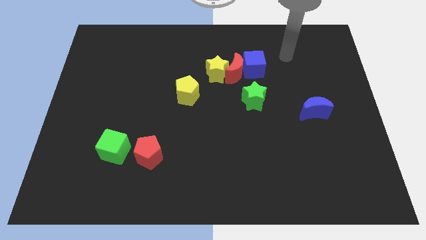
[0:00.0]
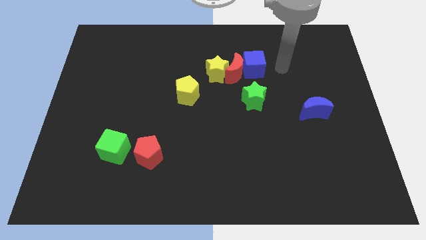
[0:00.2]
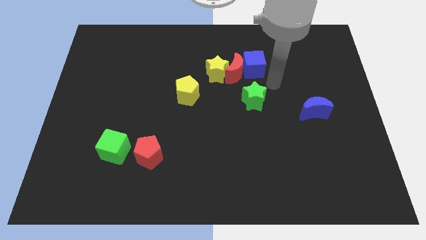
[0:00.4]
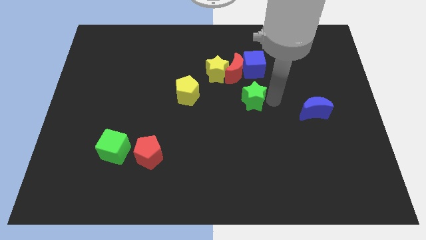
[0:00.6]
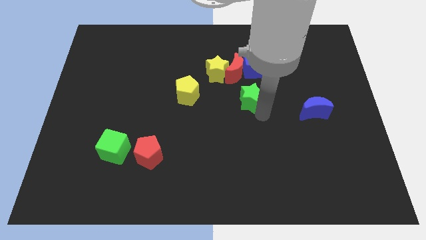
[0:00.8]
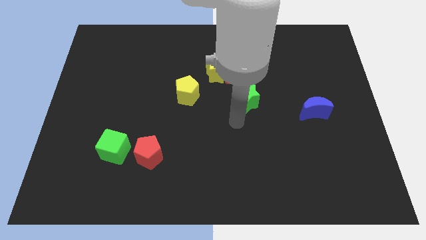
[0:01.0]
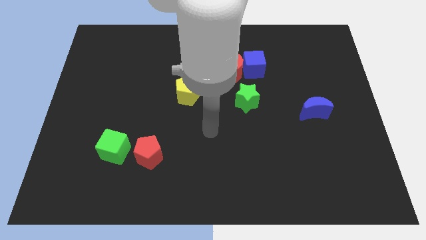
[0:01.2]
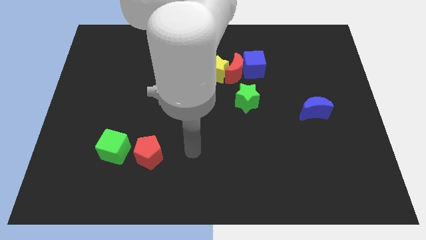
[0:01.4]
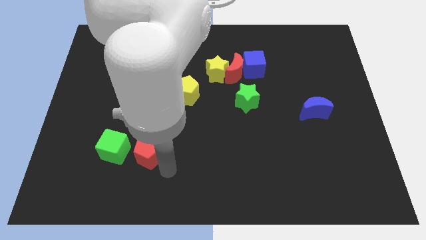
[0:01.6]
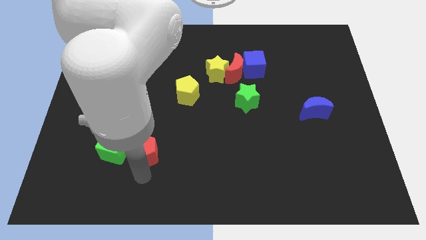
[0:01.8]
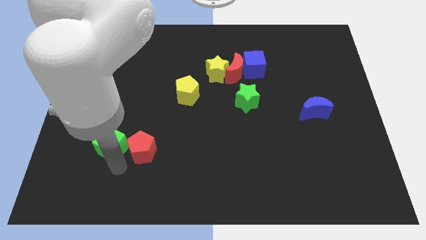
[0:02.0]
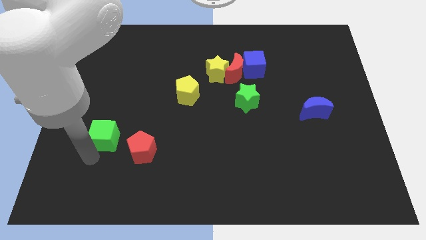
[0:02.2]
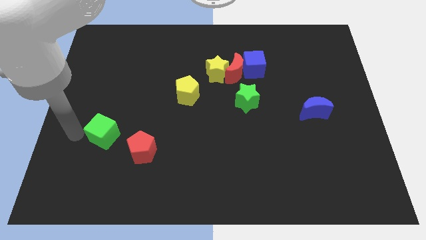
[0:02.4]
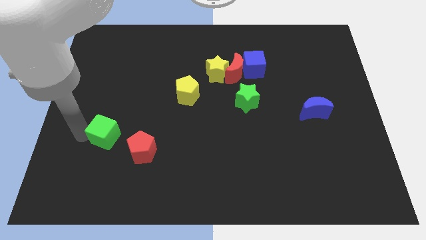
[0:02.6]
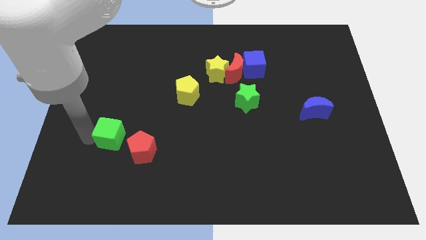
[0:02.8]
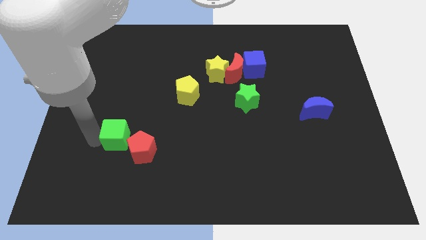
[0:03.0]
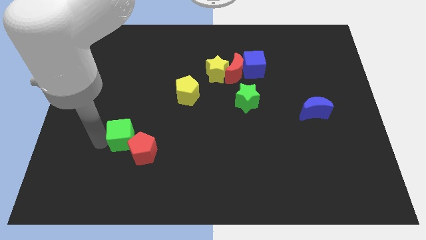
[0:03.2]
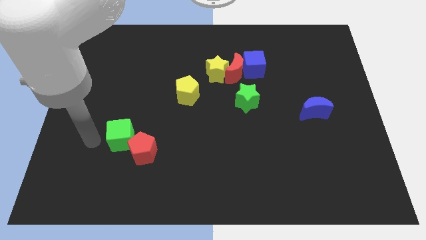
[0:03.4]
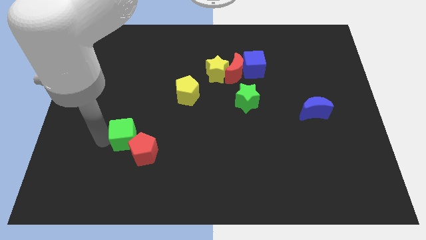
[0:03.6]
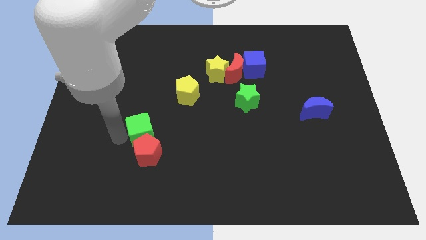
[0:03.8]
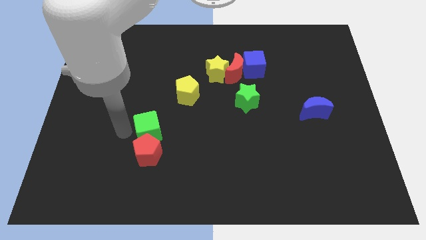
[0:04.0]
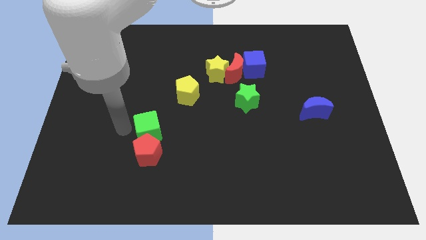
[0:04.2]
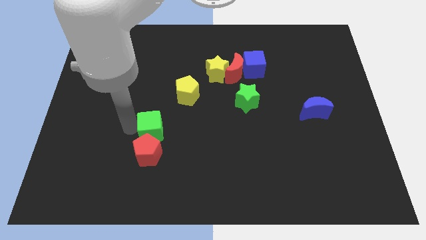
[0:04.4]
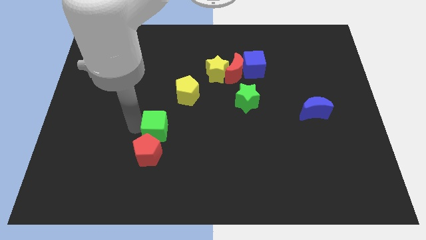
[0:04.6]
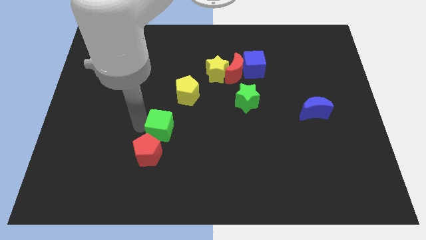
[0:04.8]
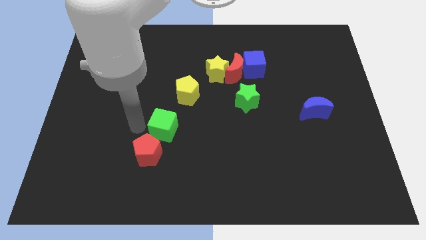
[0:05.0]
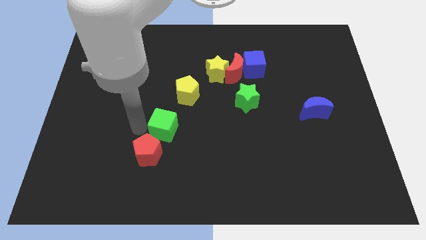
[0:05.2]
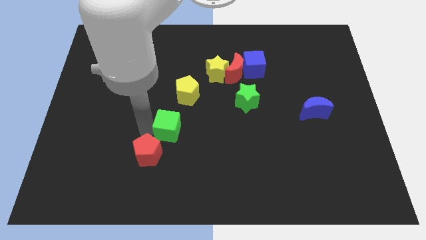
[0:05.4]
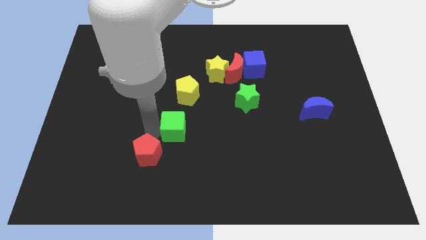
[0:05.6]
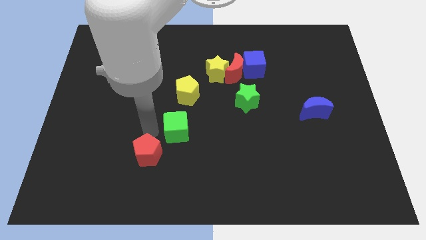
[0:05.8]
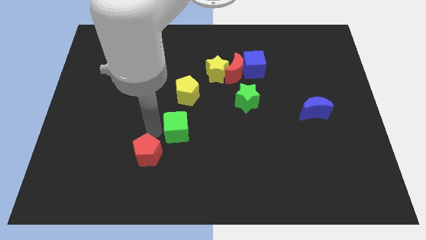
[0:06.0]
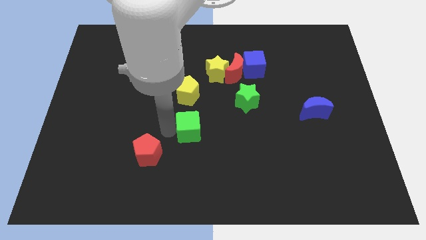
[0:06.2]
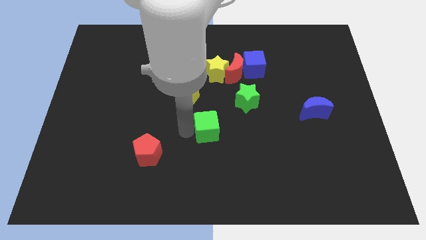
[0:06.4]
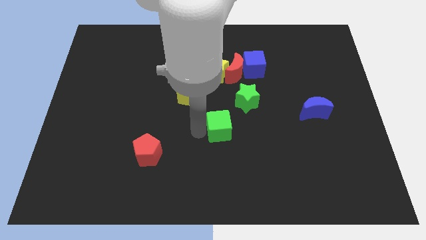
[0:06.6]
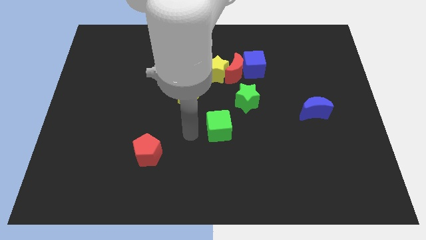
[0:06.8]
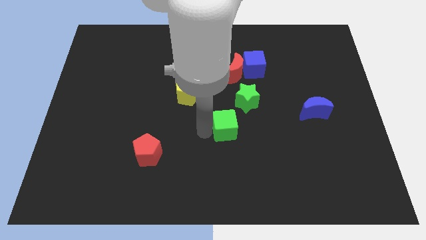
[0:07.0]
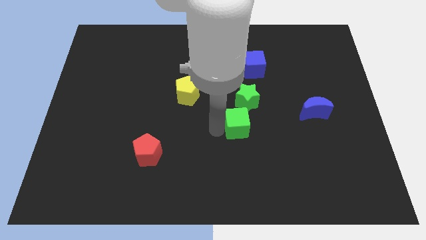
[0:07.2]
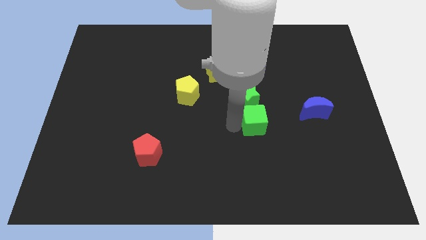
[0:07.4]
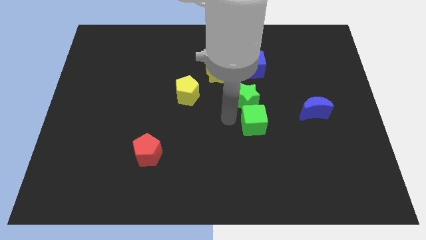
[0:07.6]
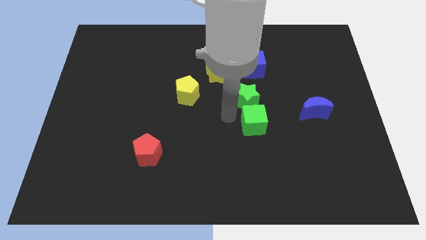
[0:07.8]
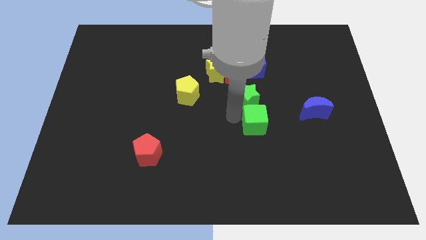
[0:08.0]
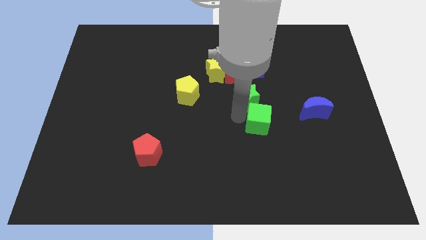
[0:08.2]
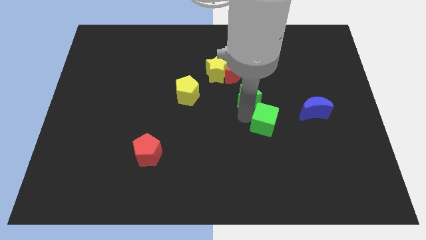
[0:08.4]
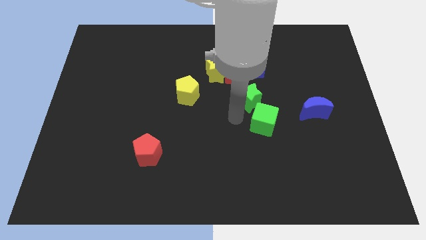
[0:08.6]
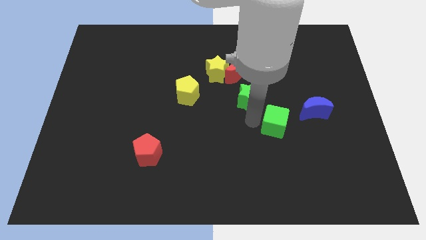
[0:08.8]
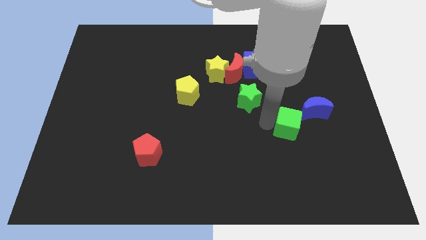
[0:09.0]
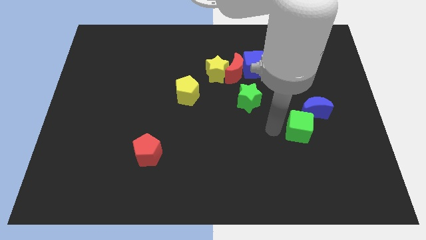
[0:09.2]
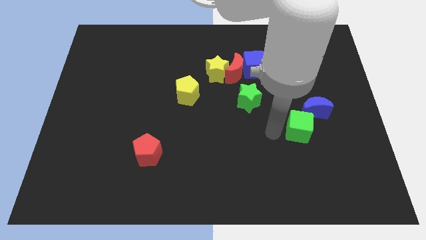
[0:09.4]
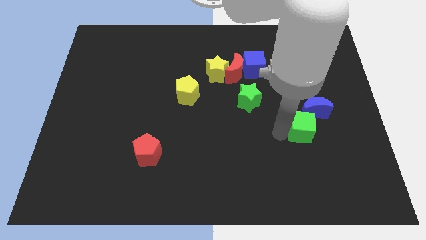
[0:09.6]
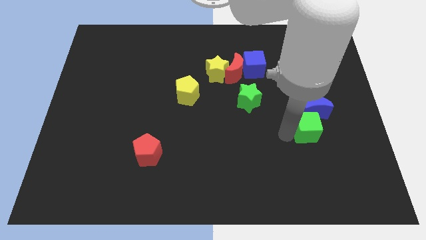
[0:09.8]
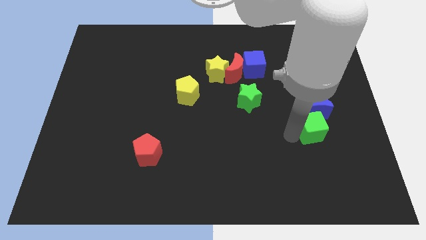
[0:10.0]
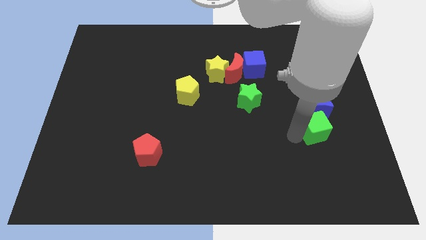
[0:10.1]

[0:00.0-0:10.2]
push the green cube diagonally down and to the right of the blue moon

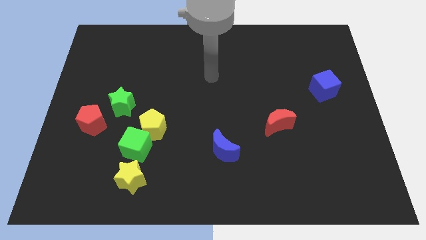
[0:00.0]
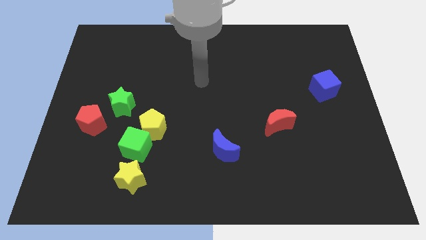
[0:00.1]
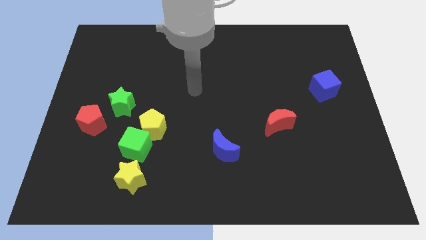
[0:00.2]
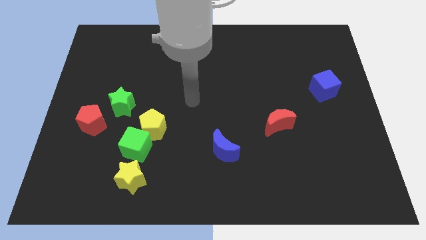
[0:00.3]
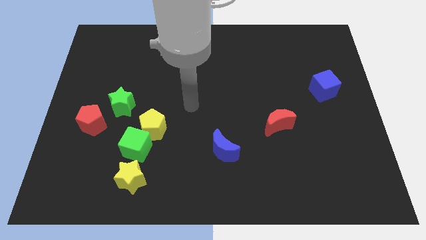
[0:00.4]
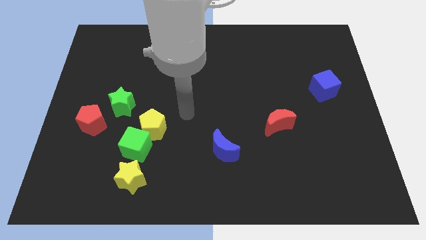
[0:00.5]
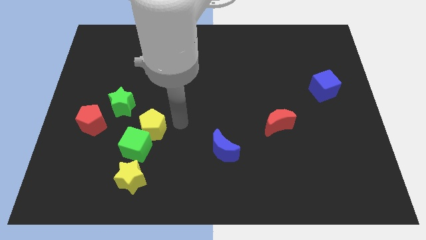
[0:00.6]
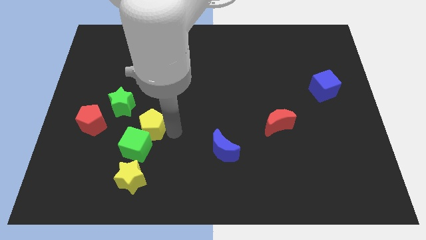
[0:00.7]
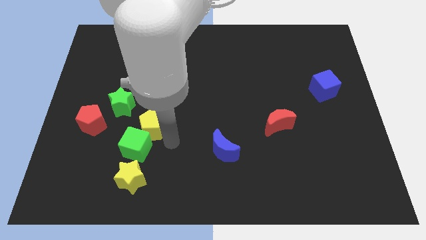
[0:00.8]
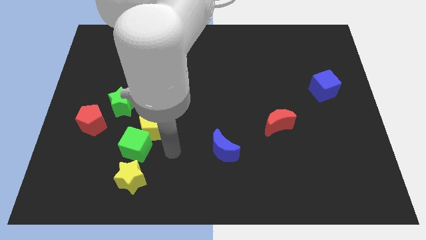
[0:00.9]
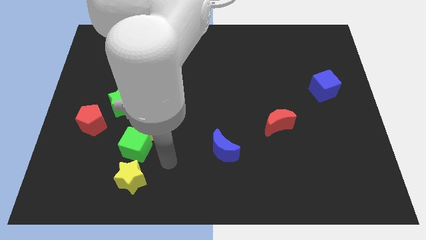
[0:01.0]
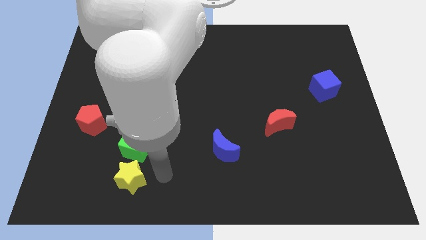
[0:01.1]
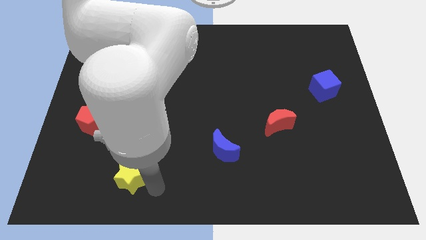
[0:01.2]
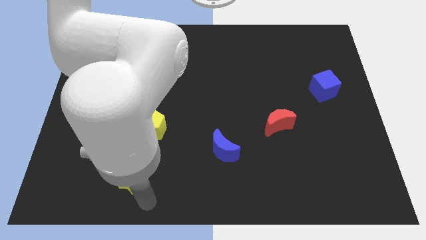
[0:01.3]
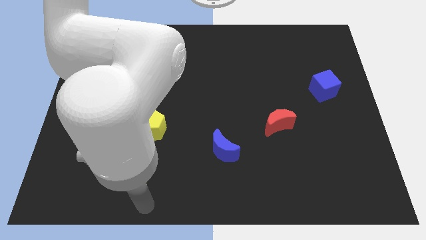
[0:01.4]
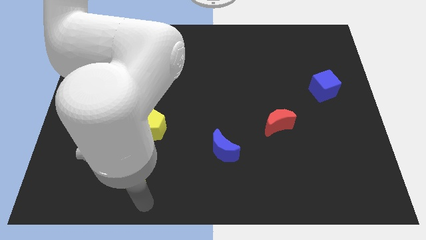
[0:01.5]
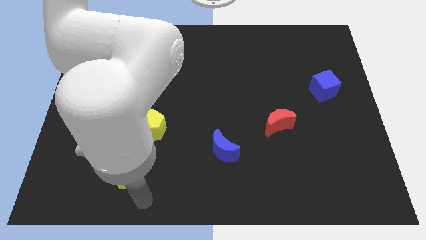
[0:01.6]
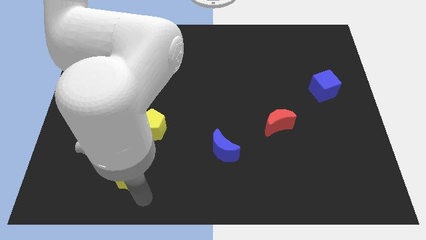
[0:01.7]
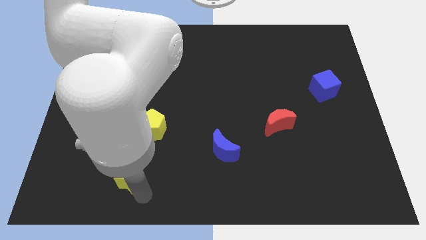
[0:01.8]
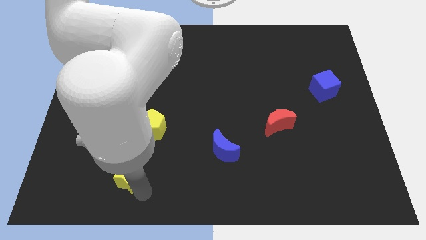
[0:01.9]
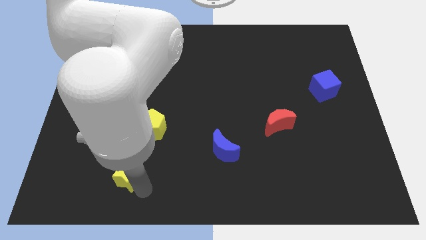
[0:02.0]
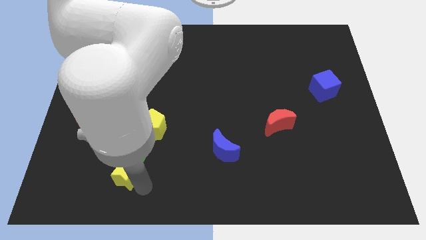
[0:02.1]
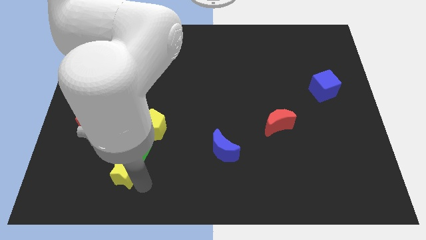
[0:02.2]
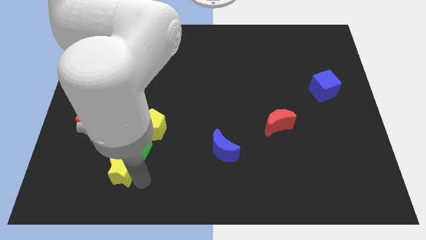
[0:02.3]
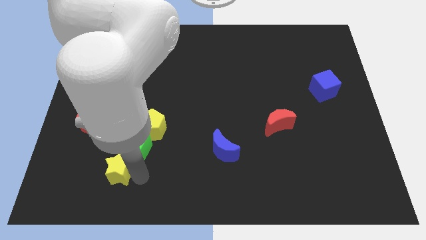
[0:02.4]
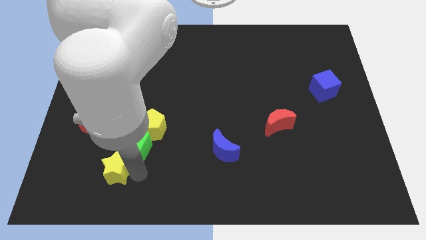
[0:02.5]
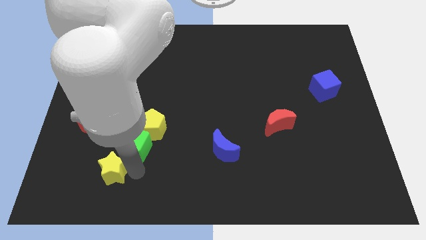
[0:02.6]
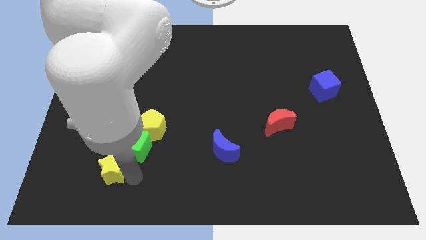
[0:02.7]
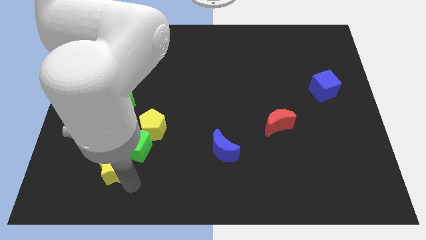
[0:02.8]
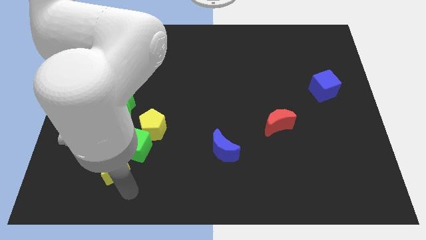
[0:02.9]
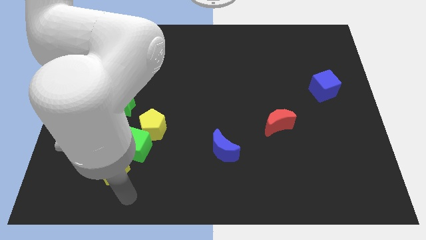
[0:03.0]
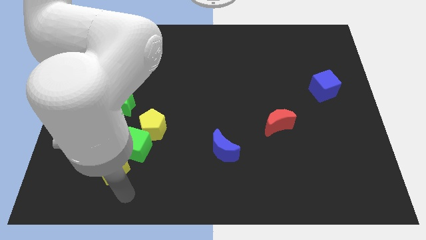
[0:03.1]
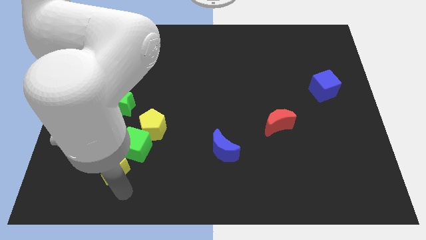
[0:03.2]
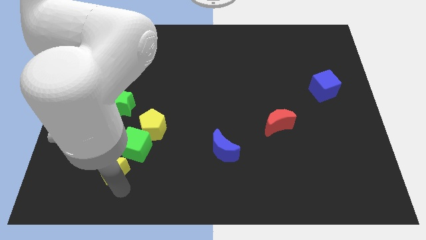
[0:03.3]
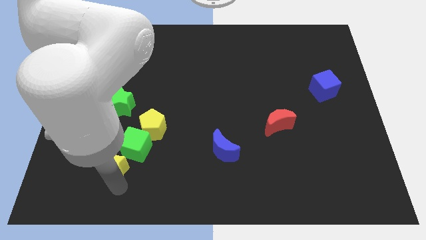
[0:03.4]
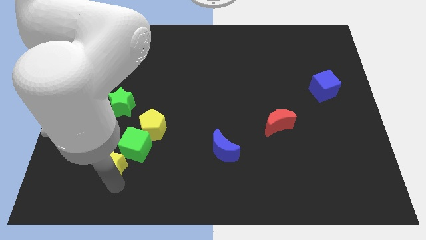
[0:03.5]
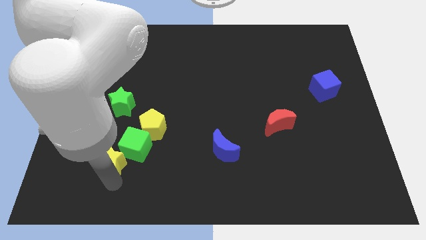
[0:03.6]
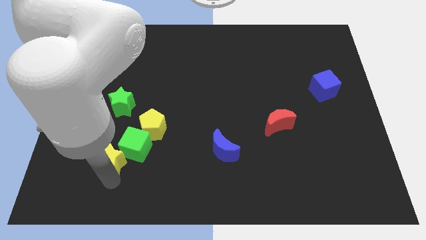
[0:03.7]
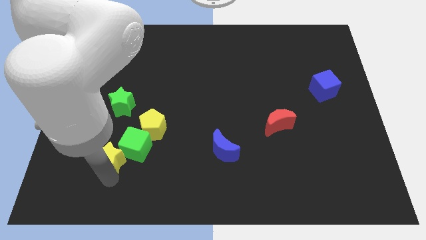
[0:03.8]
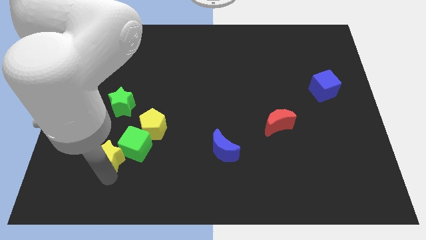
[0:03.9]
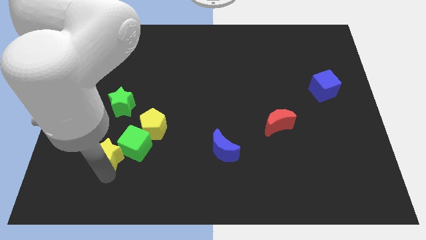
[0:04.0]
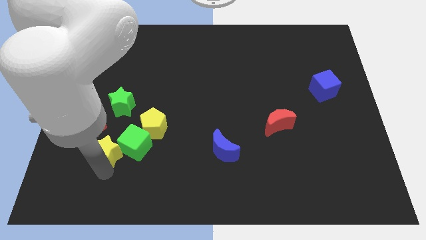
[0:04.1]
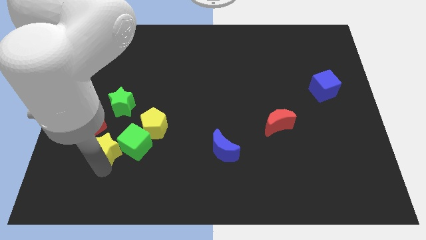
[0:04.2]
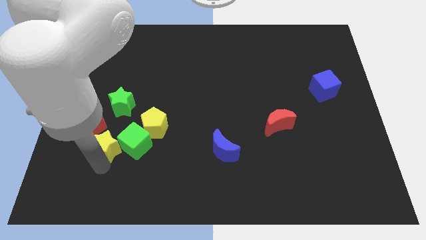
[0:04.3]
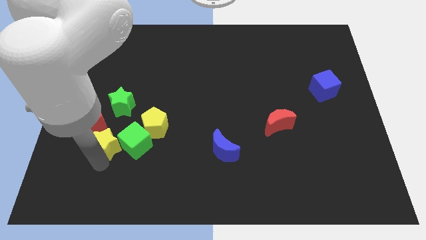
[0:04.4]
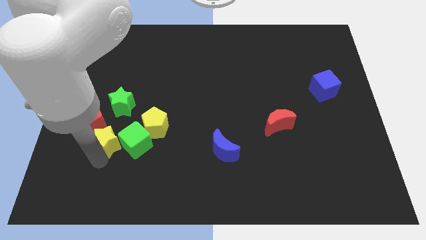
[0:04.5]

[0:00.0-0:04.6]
put the yellow star to the left side of the yellow pentagon
